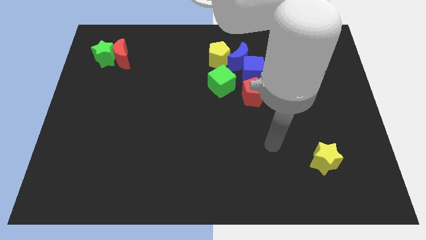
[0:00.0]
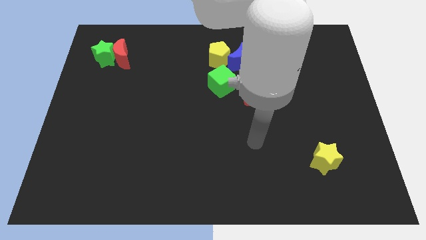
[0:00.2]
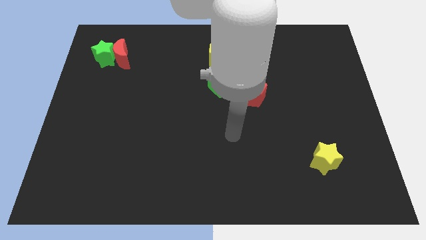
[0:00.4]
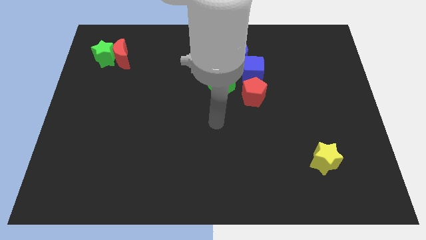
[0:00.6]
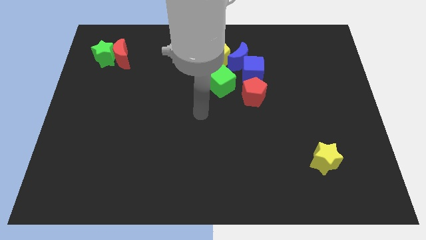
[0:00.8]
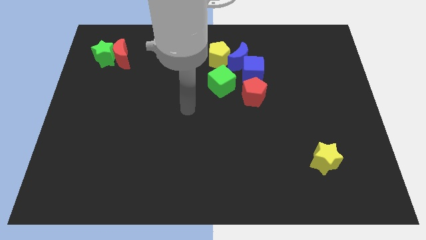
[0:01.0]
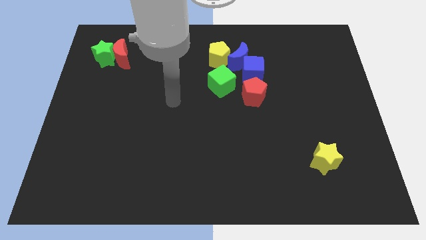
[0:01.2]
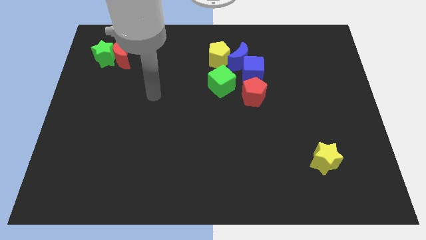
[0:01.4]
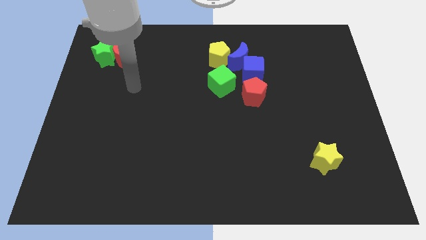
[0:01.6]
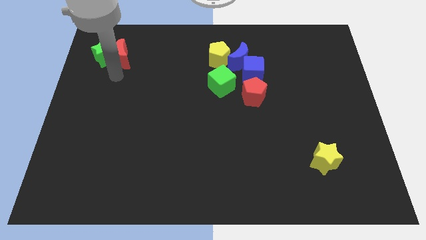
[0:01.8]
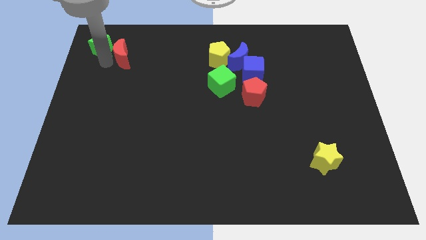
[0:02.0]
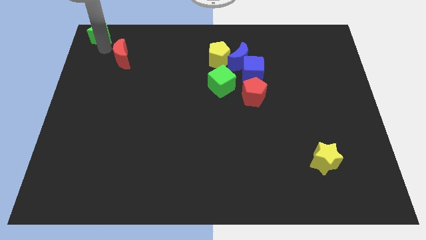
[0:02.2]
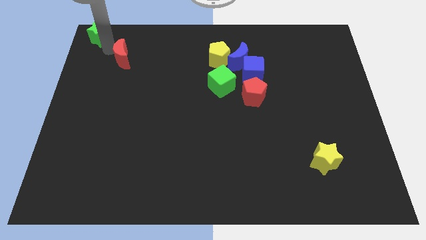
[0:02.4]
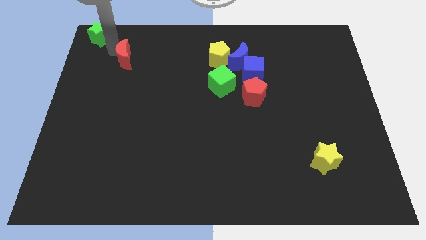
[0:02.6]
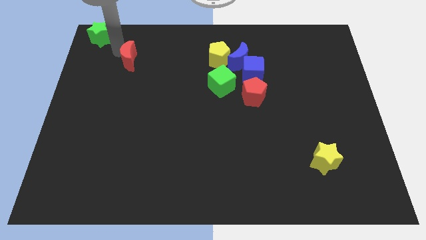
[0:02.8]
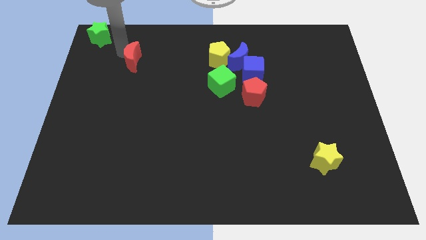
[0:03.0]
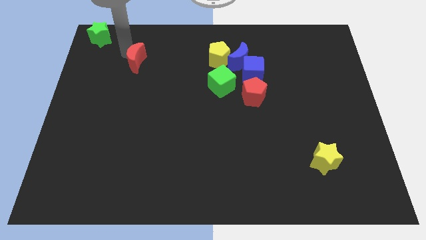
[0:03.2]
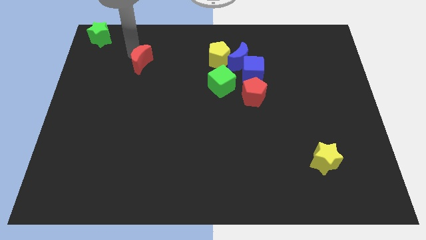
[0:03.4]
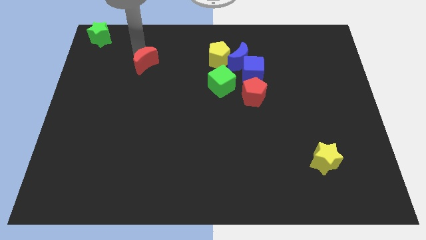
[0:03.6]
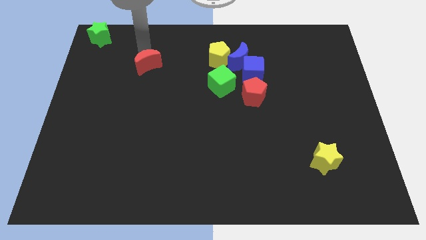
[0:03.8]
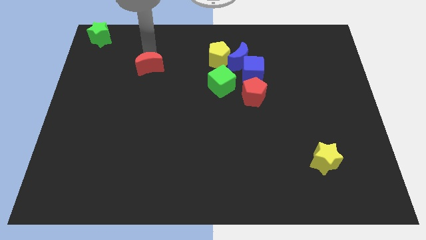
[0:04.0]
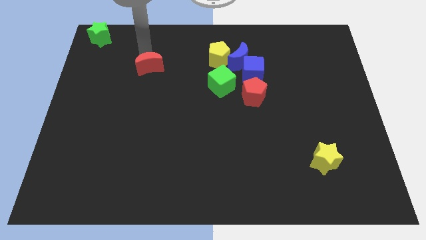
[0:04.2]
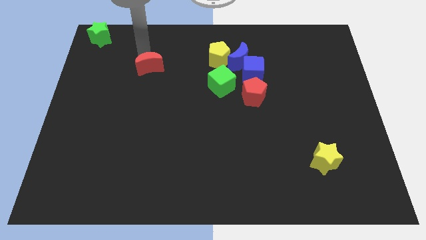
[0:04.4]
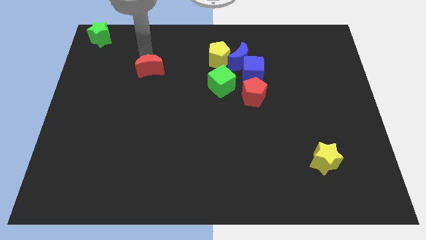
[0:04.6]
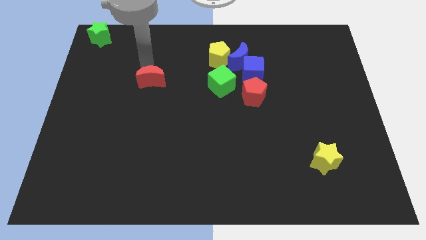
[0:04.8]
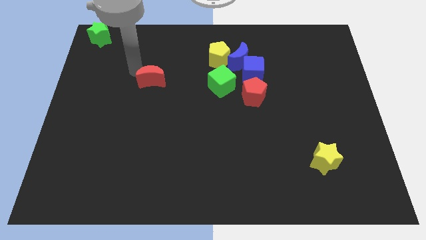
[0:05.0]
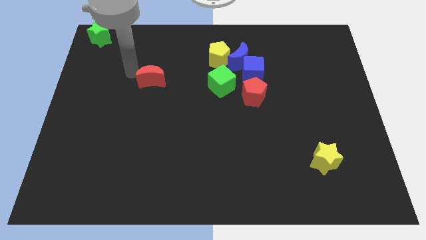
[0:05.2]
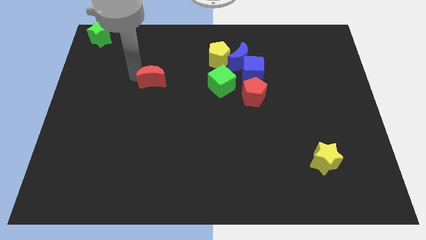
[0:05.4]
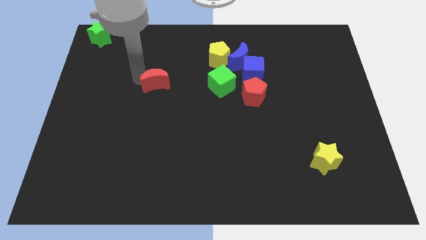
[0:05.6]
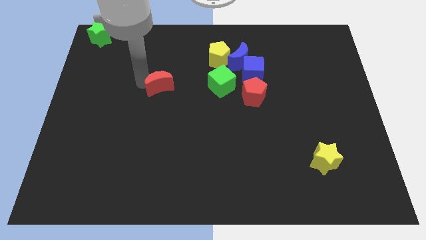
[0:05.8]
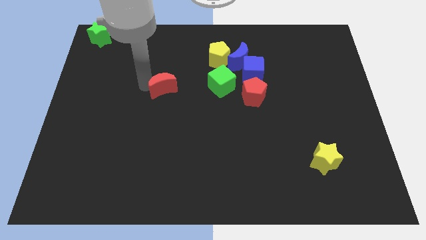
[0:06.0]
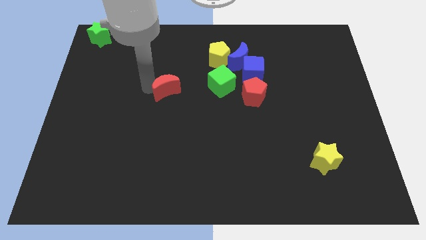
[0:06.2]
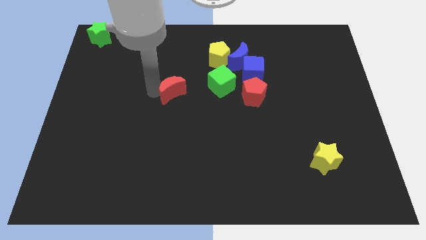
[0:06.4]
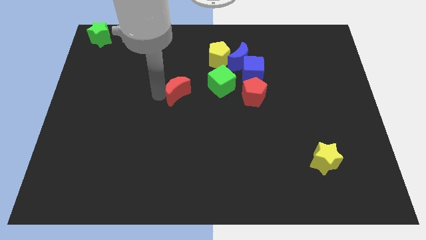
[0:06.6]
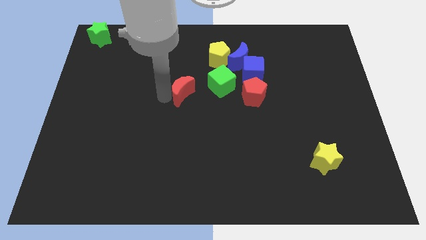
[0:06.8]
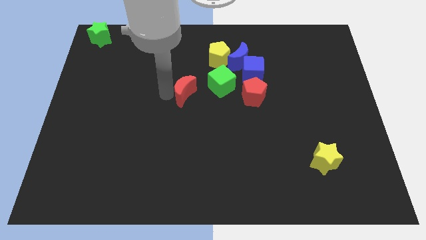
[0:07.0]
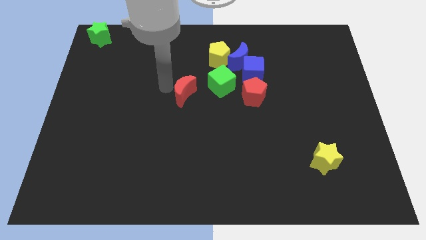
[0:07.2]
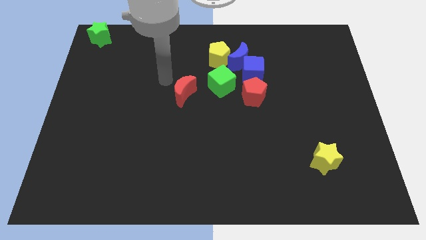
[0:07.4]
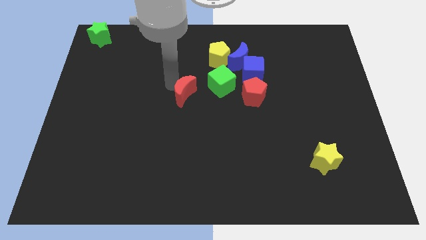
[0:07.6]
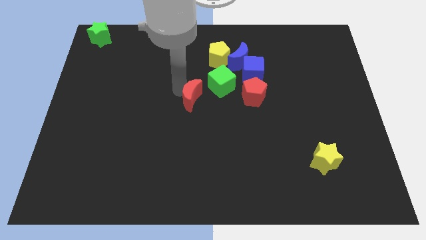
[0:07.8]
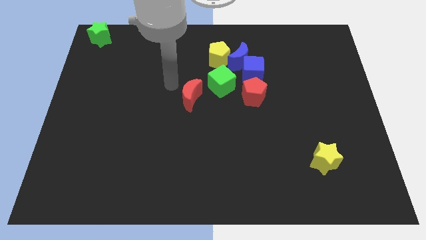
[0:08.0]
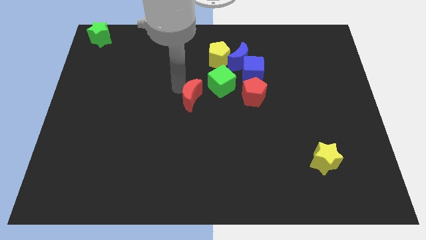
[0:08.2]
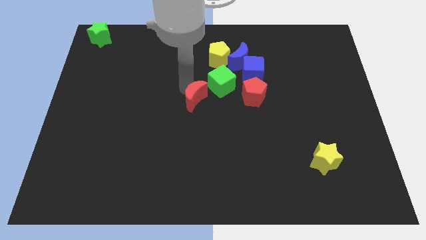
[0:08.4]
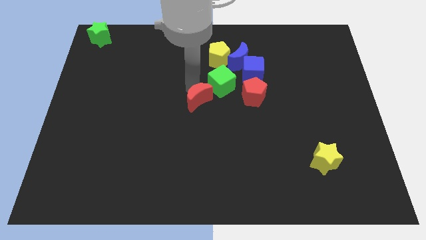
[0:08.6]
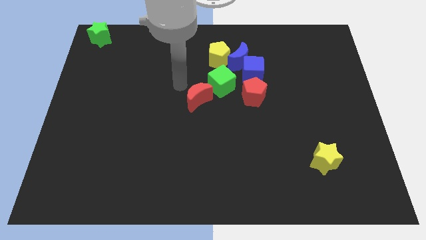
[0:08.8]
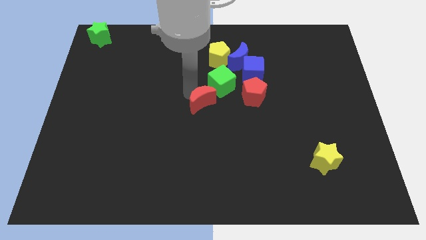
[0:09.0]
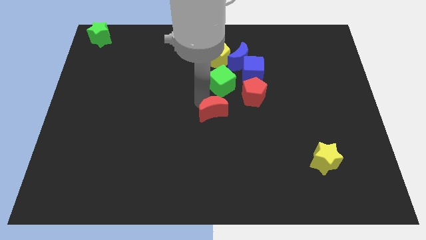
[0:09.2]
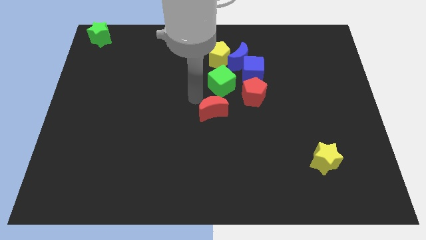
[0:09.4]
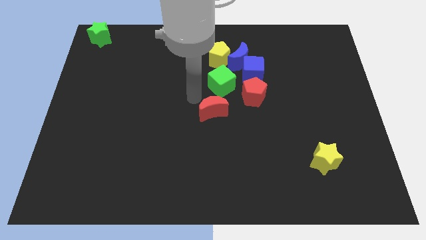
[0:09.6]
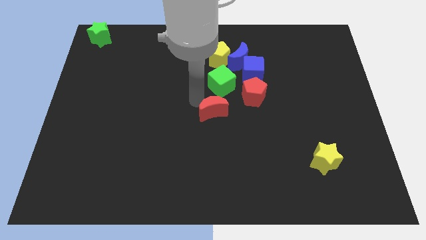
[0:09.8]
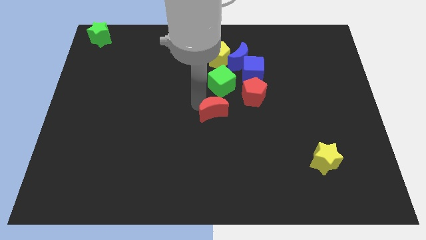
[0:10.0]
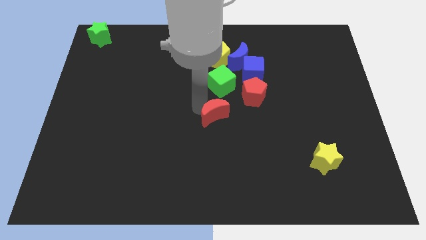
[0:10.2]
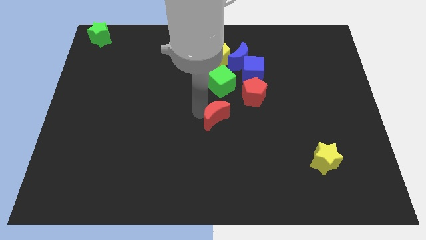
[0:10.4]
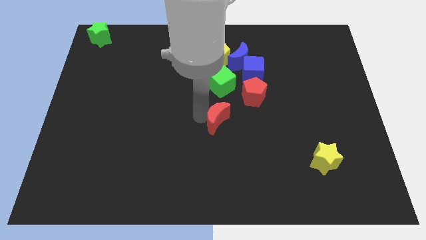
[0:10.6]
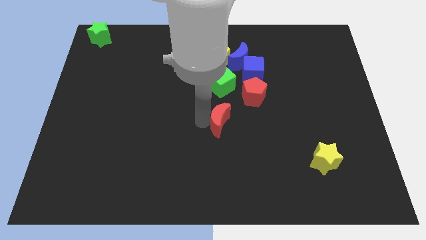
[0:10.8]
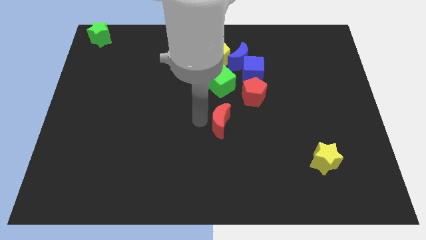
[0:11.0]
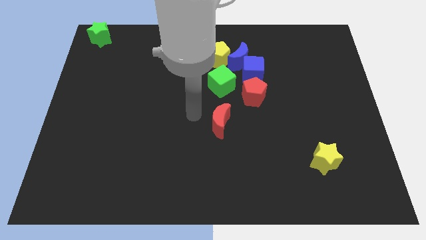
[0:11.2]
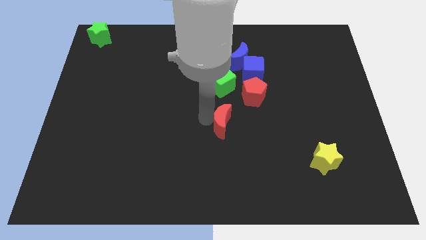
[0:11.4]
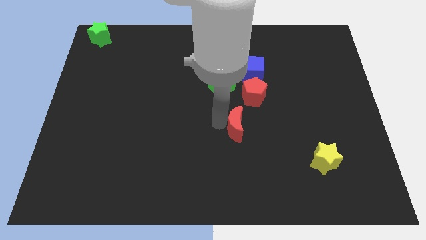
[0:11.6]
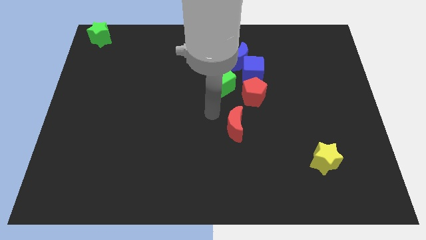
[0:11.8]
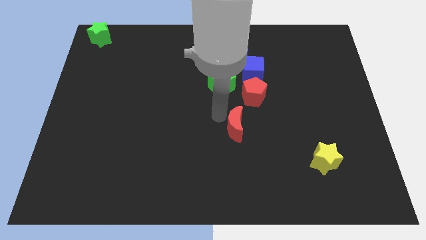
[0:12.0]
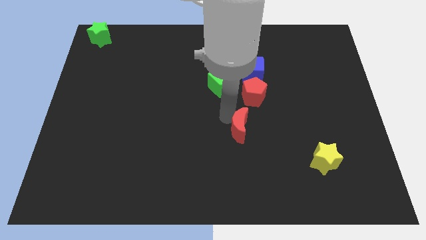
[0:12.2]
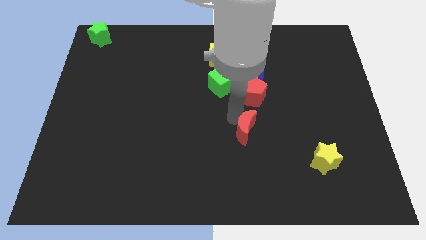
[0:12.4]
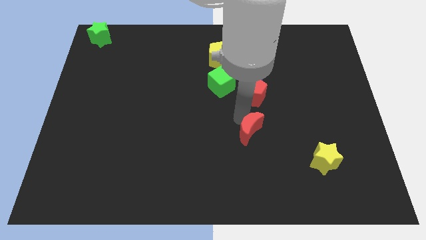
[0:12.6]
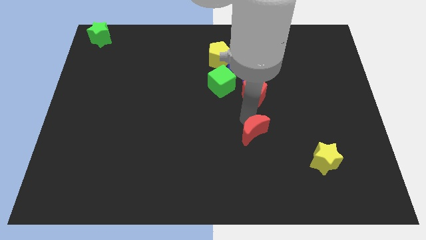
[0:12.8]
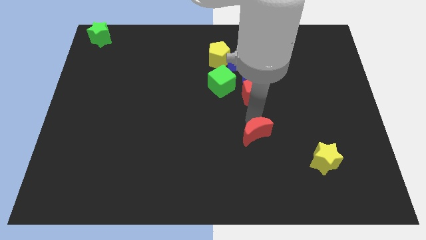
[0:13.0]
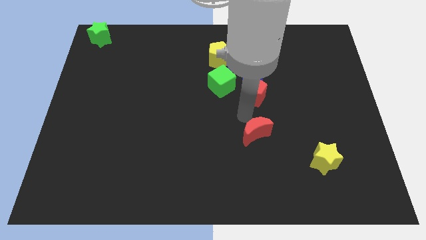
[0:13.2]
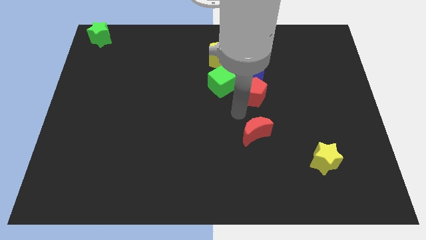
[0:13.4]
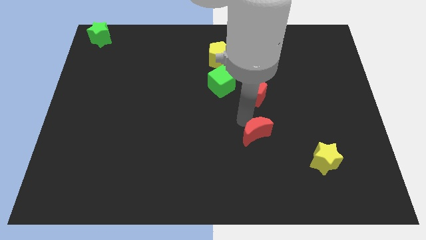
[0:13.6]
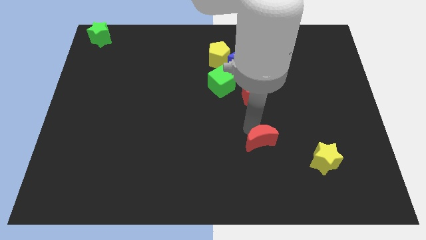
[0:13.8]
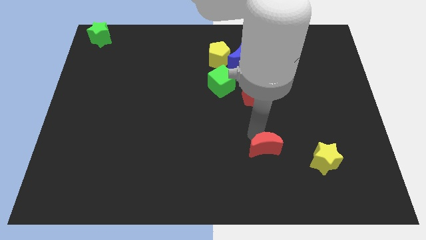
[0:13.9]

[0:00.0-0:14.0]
push the red moon to the left of the yellow star

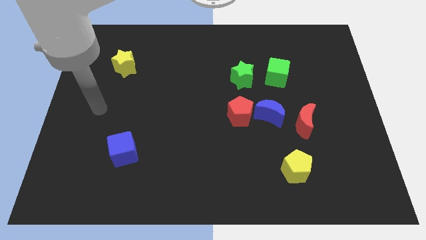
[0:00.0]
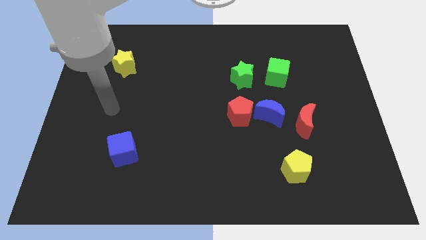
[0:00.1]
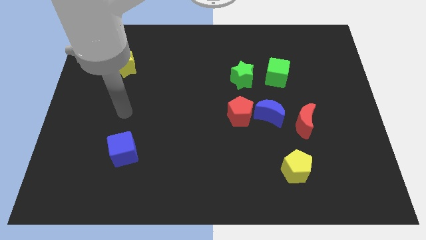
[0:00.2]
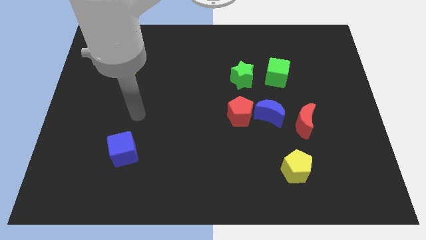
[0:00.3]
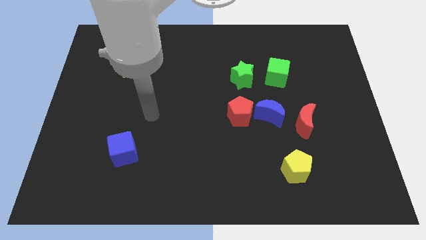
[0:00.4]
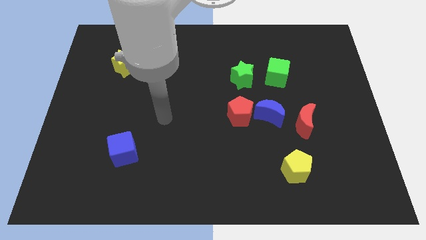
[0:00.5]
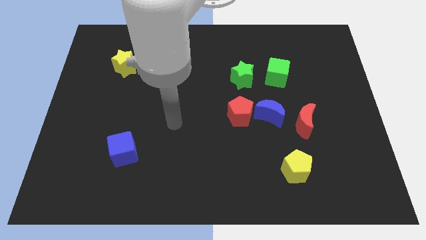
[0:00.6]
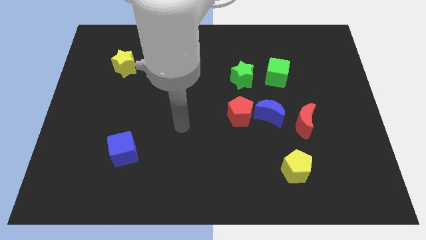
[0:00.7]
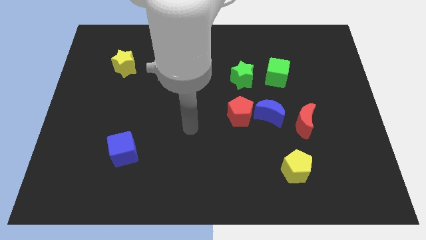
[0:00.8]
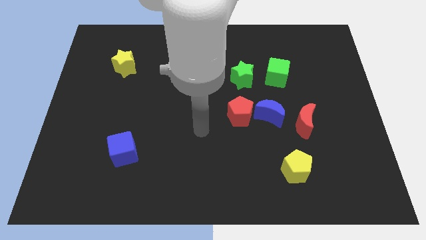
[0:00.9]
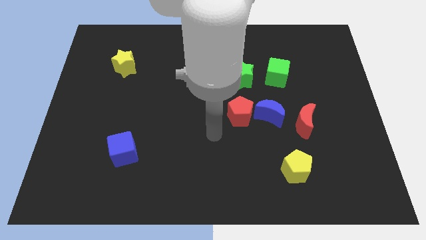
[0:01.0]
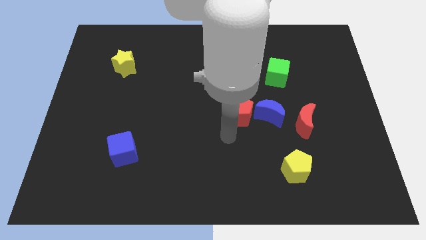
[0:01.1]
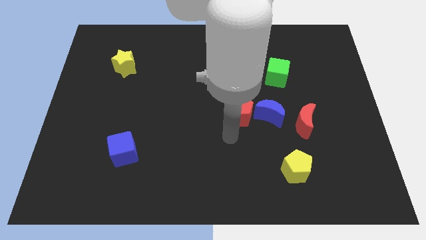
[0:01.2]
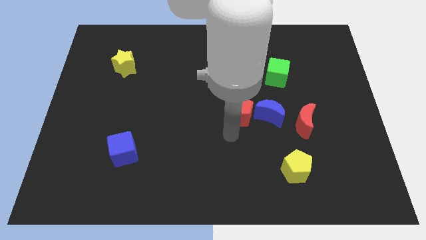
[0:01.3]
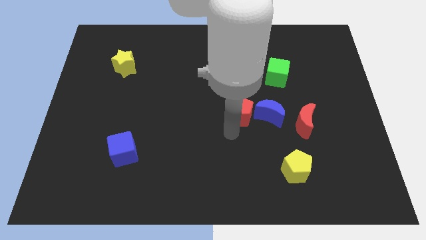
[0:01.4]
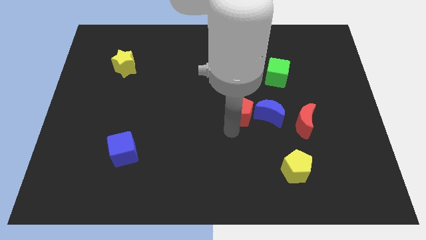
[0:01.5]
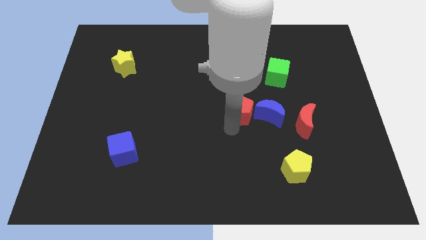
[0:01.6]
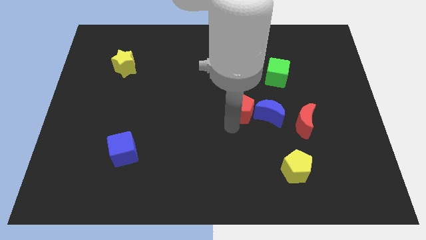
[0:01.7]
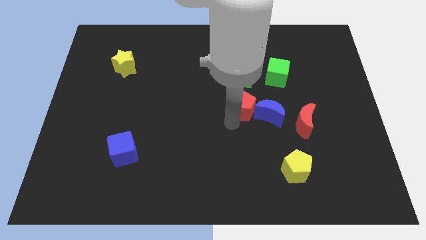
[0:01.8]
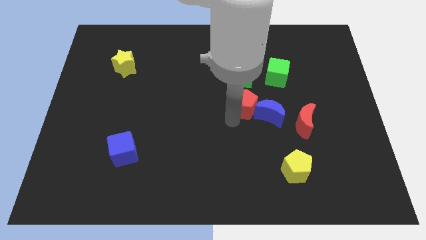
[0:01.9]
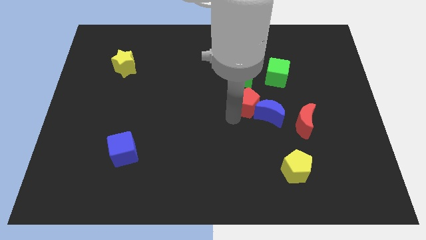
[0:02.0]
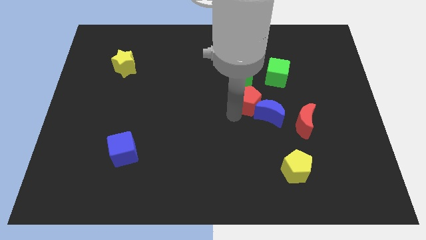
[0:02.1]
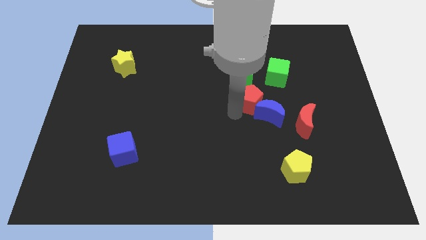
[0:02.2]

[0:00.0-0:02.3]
slide the red pentagon to the top of the blue moon
